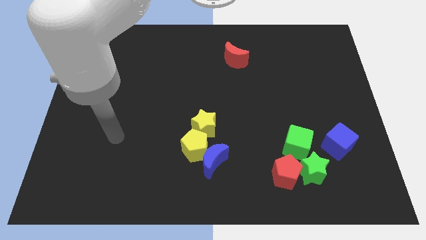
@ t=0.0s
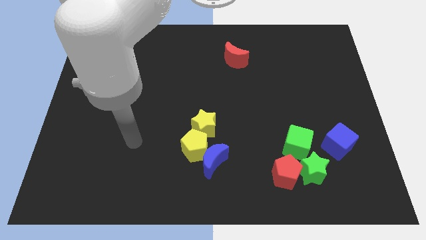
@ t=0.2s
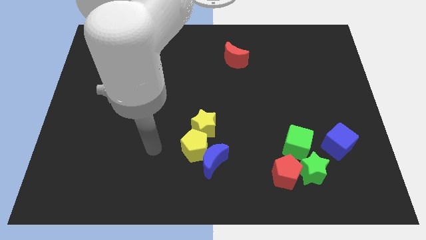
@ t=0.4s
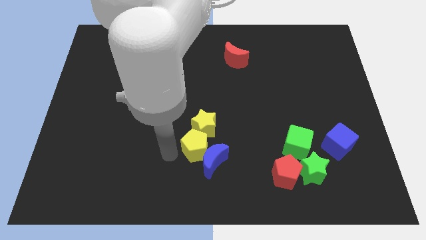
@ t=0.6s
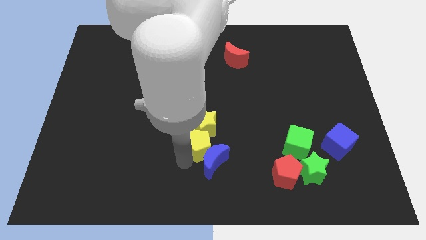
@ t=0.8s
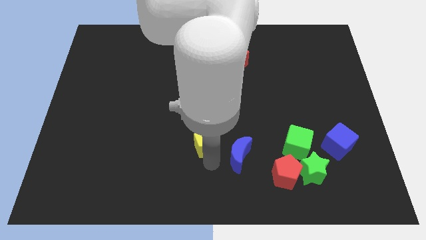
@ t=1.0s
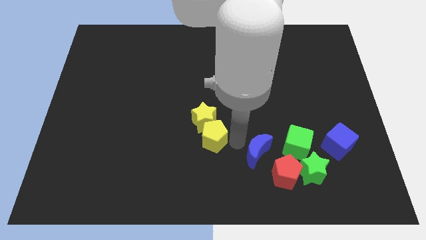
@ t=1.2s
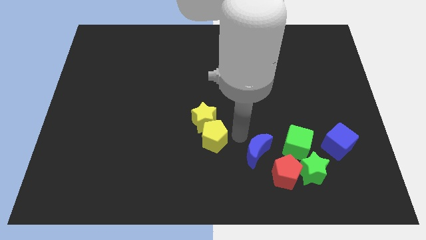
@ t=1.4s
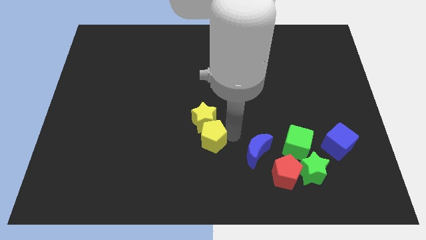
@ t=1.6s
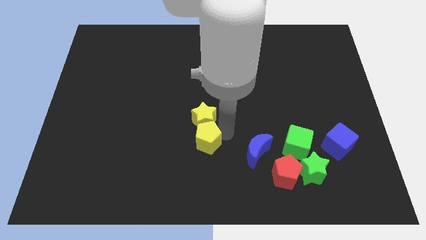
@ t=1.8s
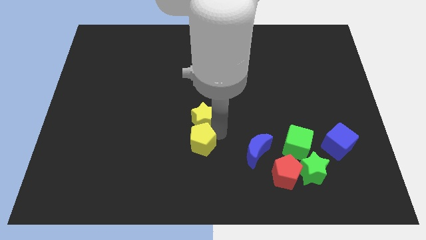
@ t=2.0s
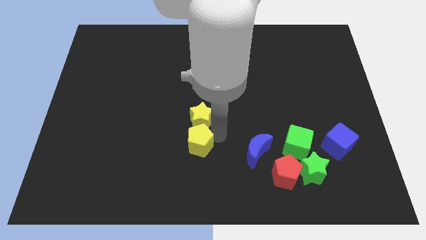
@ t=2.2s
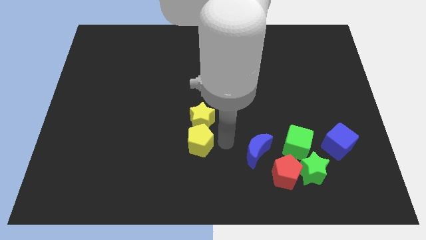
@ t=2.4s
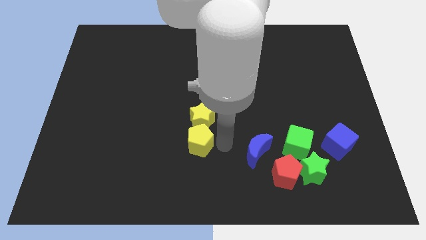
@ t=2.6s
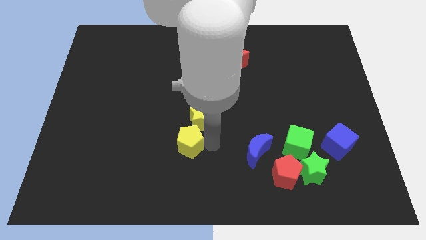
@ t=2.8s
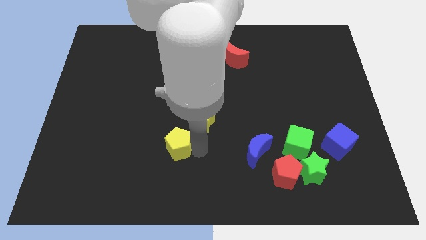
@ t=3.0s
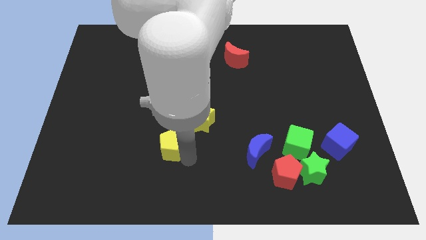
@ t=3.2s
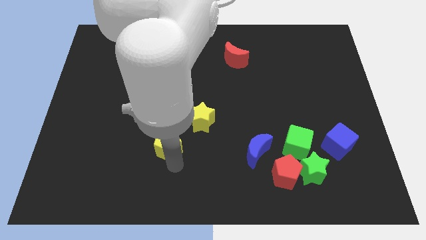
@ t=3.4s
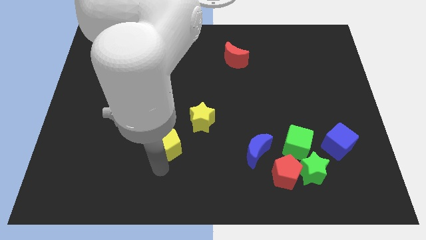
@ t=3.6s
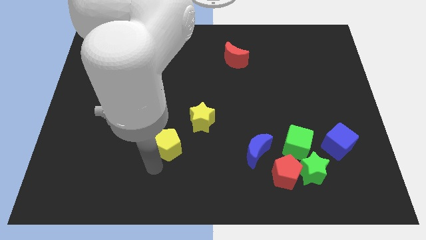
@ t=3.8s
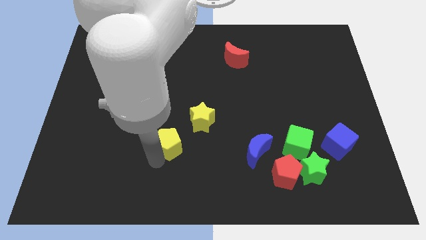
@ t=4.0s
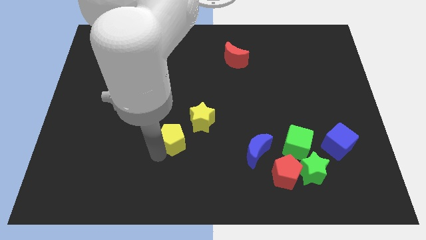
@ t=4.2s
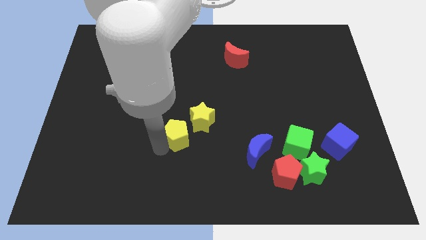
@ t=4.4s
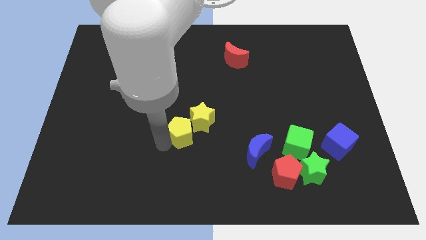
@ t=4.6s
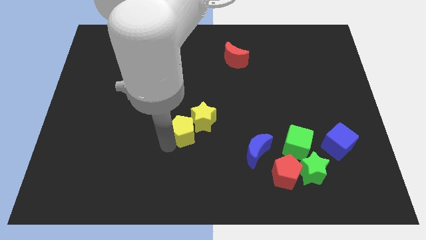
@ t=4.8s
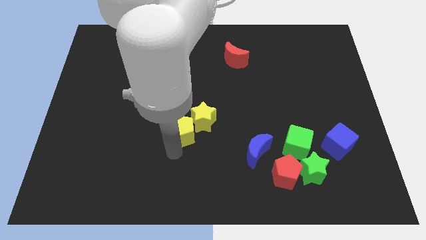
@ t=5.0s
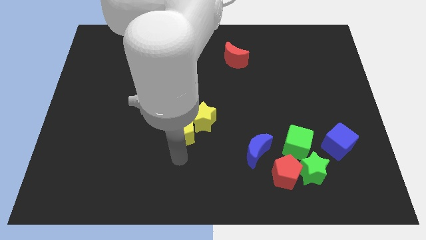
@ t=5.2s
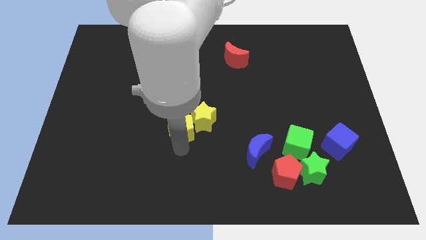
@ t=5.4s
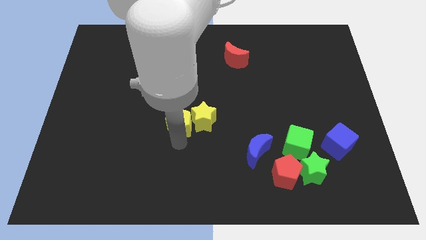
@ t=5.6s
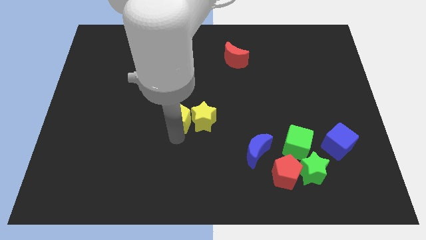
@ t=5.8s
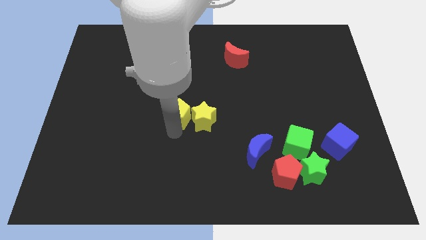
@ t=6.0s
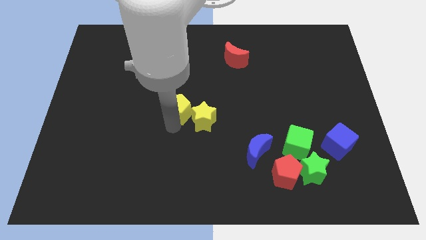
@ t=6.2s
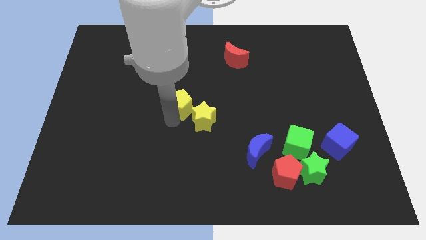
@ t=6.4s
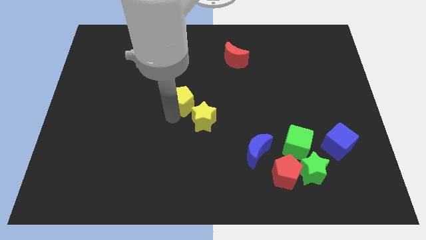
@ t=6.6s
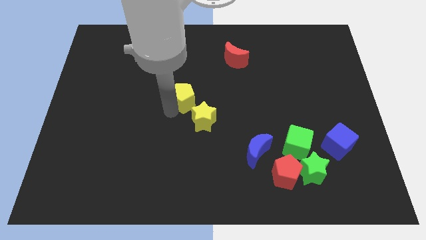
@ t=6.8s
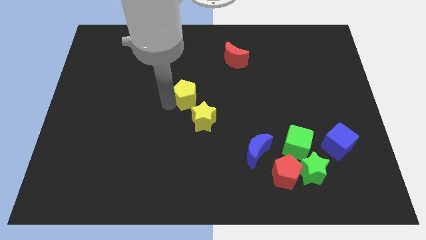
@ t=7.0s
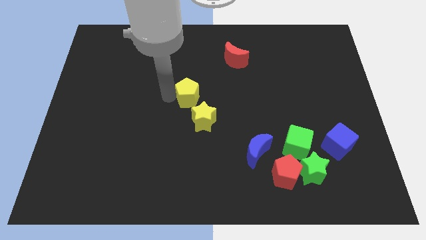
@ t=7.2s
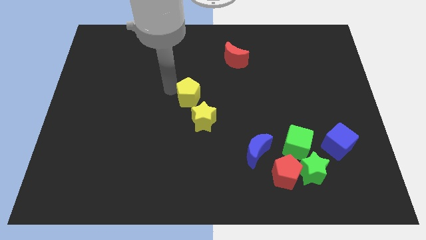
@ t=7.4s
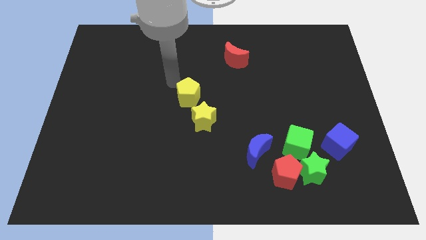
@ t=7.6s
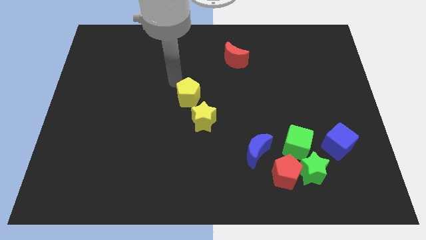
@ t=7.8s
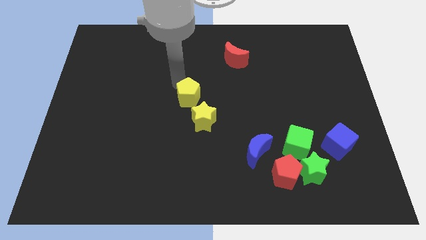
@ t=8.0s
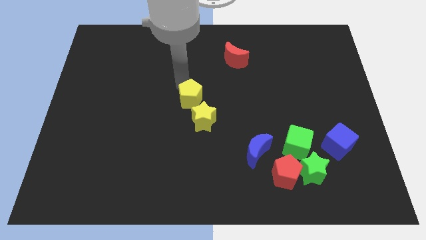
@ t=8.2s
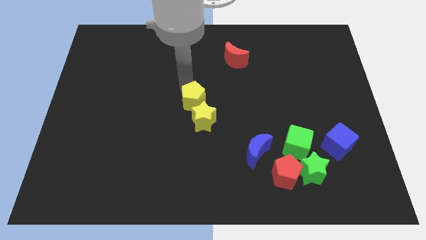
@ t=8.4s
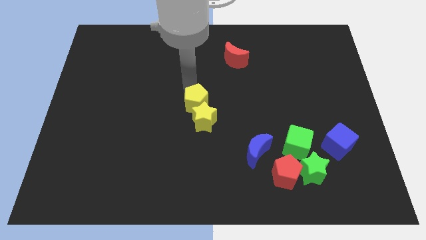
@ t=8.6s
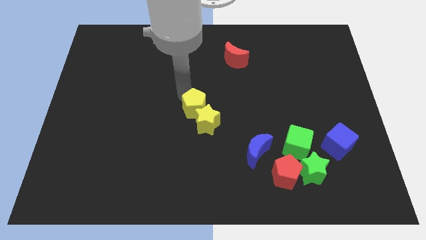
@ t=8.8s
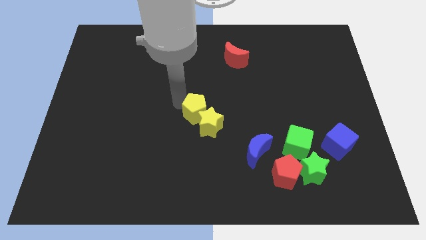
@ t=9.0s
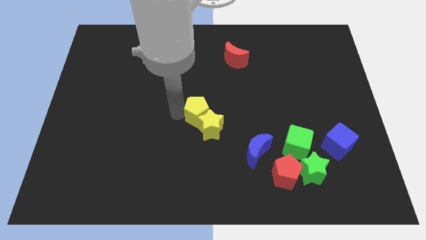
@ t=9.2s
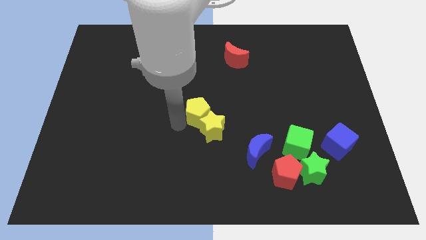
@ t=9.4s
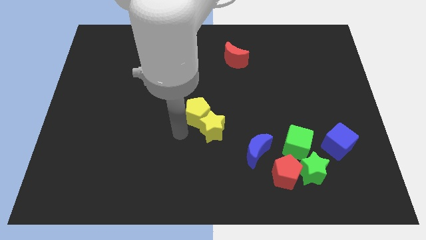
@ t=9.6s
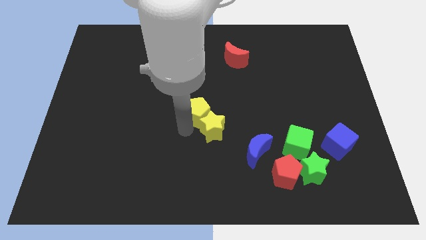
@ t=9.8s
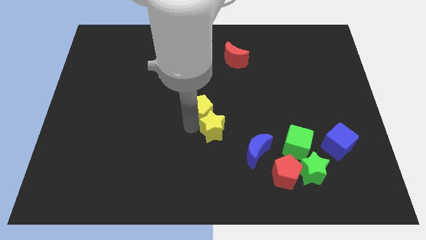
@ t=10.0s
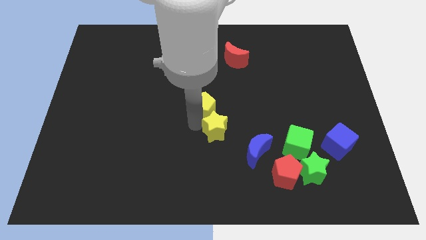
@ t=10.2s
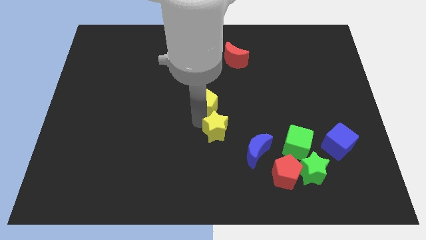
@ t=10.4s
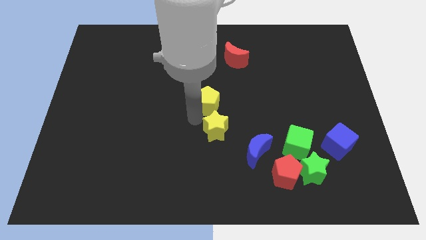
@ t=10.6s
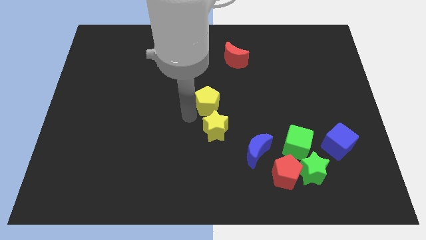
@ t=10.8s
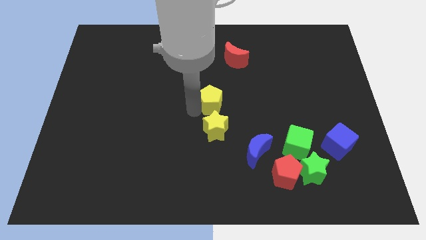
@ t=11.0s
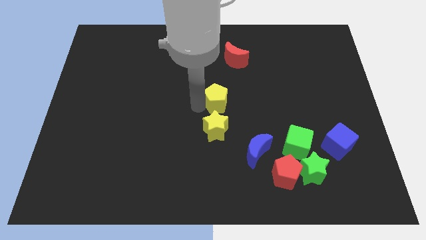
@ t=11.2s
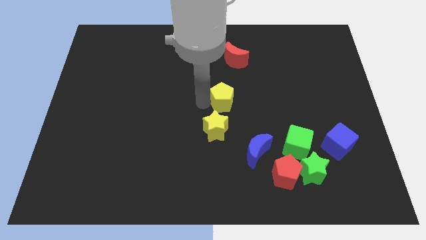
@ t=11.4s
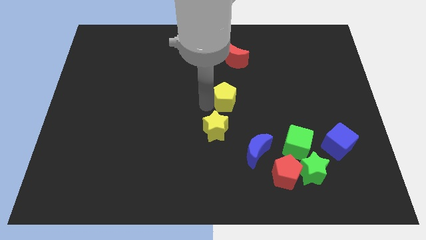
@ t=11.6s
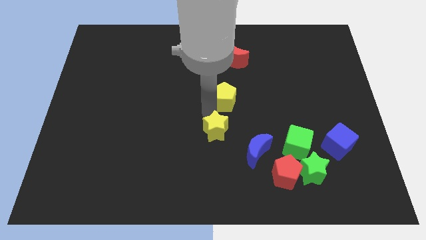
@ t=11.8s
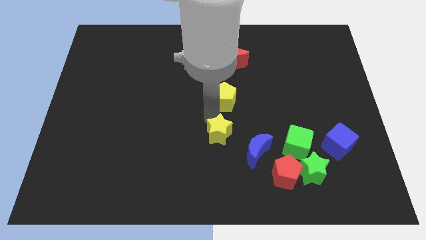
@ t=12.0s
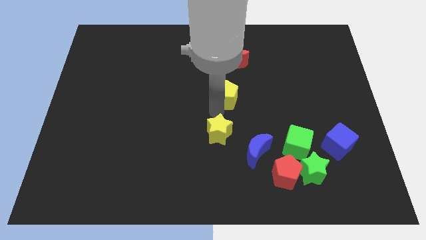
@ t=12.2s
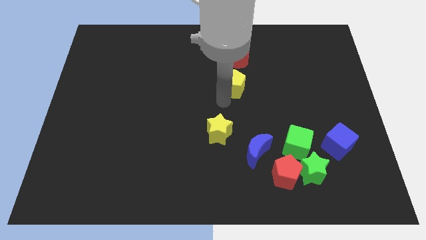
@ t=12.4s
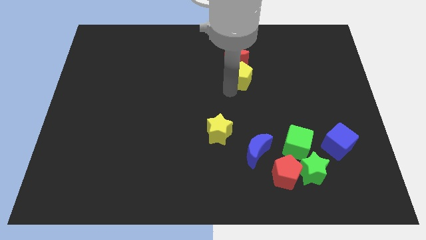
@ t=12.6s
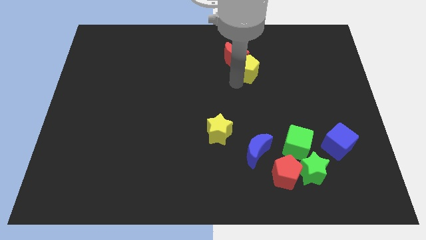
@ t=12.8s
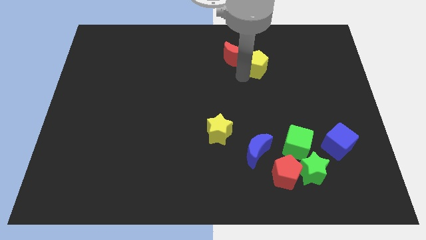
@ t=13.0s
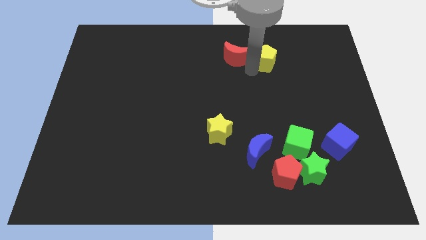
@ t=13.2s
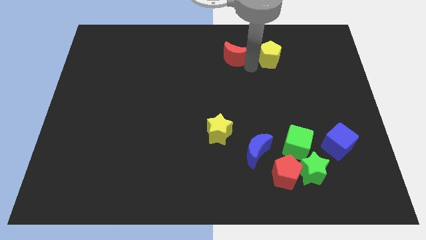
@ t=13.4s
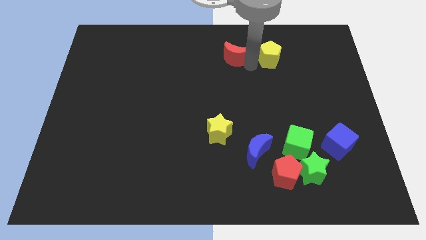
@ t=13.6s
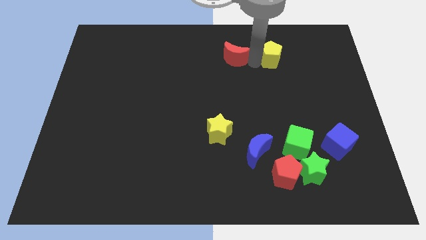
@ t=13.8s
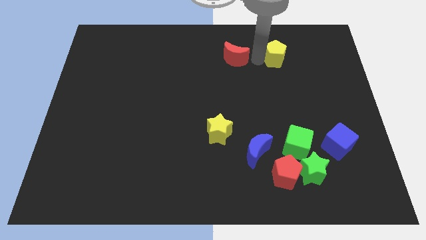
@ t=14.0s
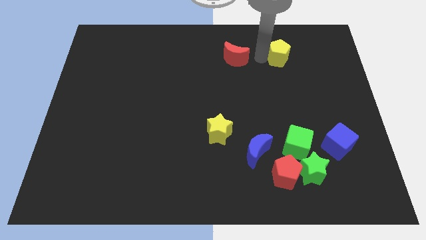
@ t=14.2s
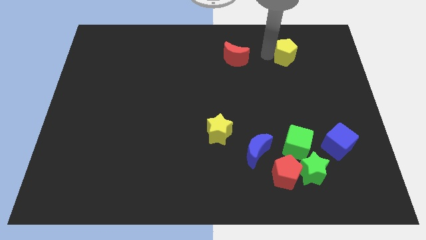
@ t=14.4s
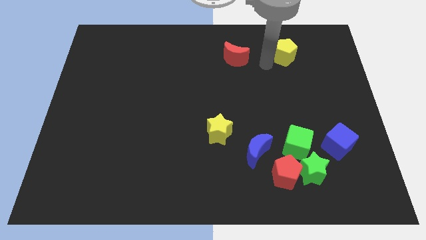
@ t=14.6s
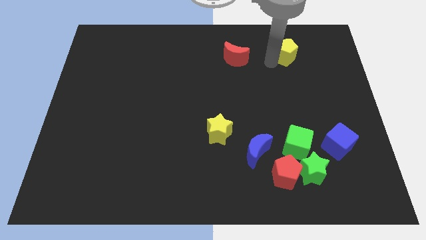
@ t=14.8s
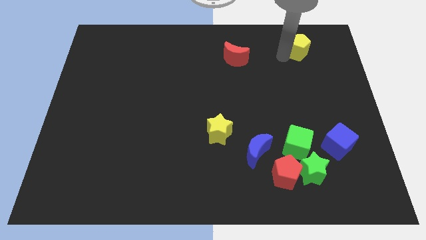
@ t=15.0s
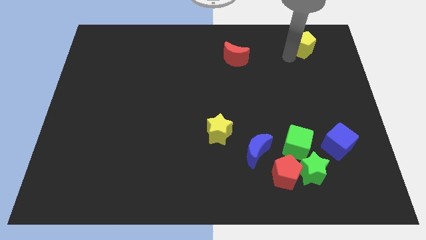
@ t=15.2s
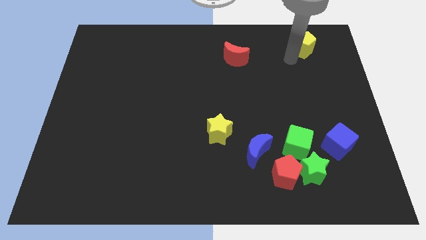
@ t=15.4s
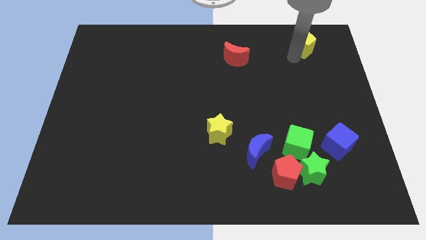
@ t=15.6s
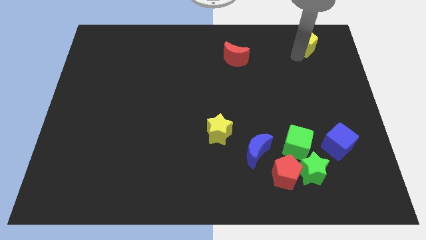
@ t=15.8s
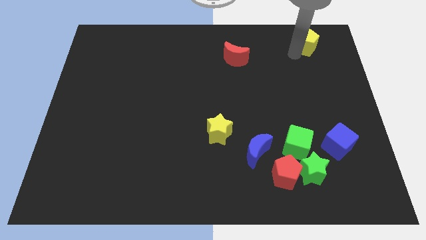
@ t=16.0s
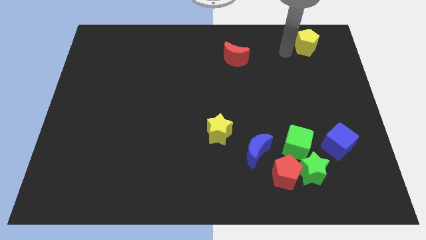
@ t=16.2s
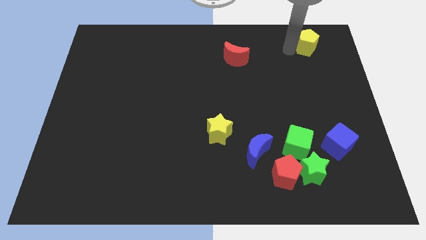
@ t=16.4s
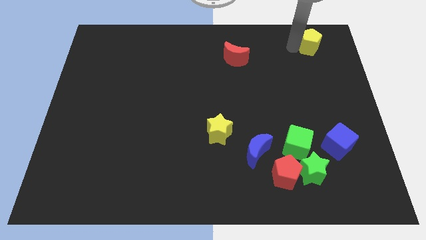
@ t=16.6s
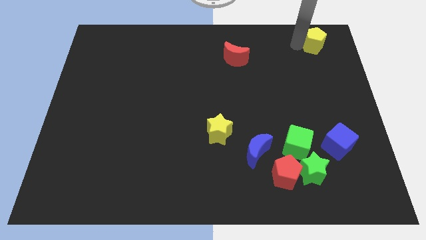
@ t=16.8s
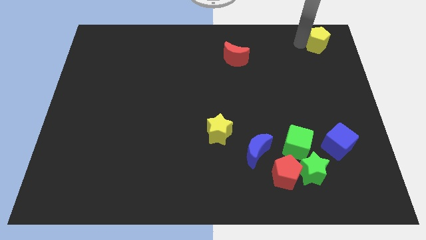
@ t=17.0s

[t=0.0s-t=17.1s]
move the yellow pentagon to the top right of the board
